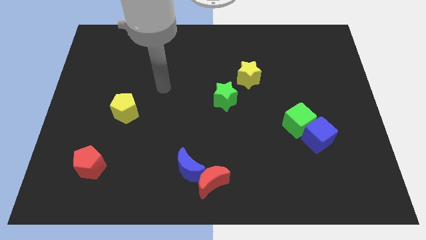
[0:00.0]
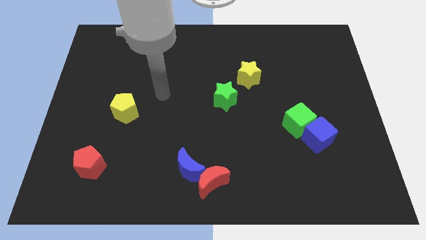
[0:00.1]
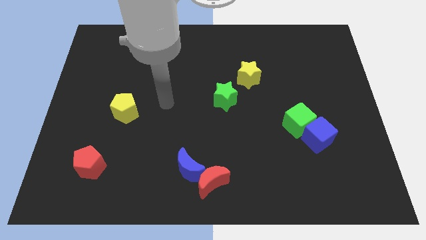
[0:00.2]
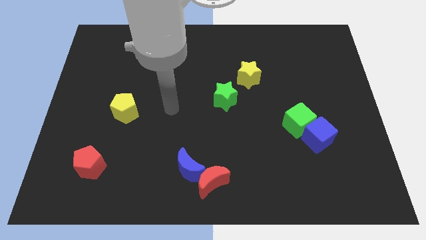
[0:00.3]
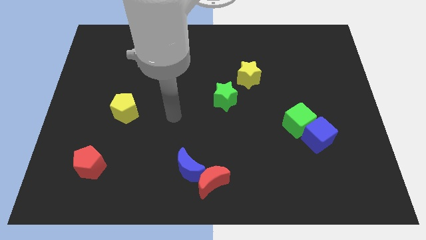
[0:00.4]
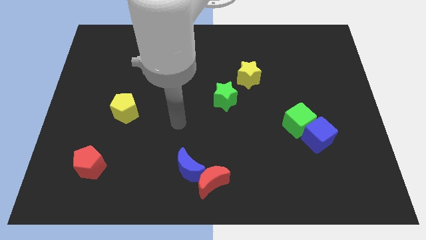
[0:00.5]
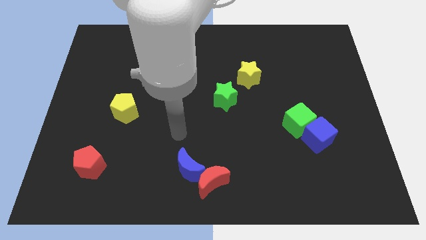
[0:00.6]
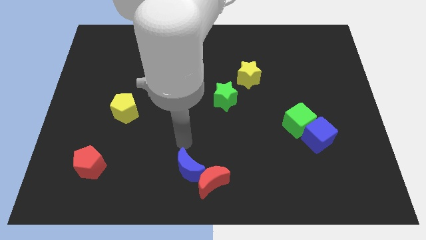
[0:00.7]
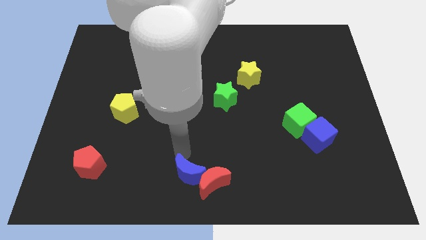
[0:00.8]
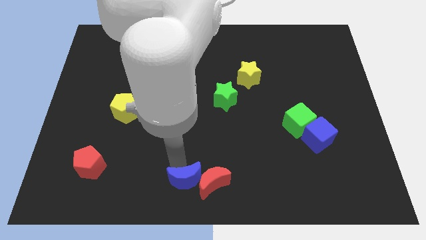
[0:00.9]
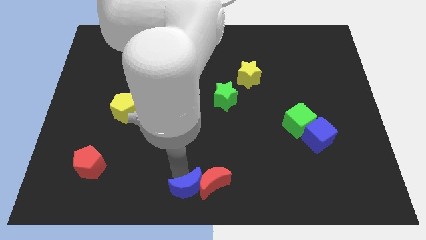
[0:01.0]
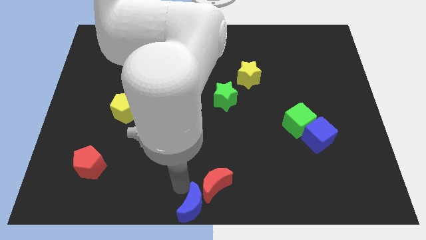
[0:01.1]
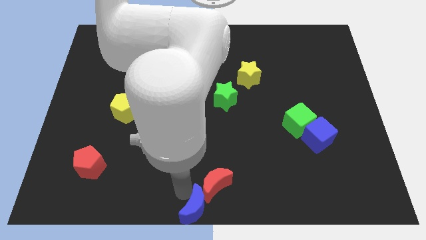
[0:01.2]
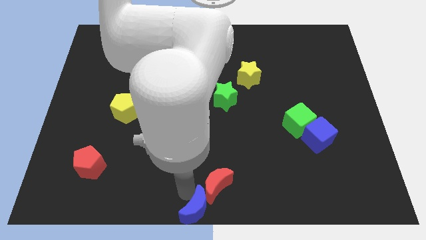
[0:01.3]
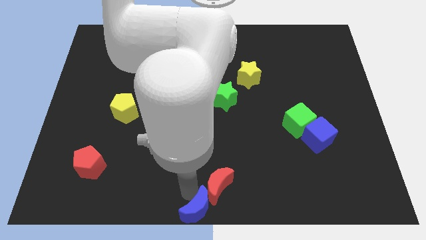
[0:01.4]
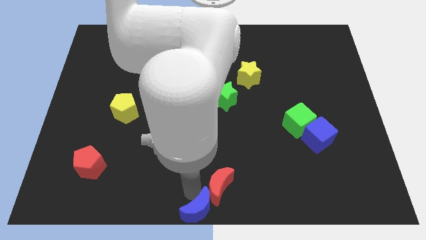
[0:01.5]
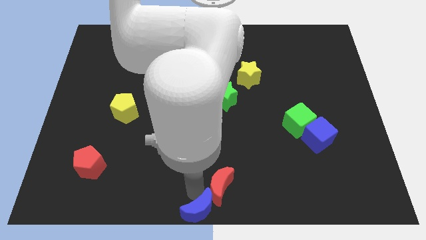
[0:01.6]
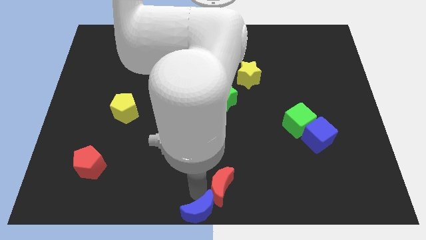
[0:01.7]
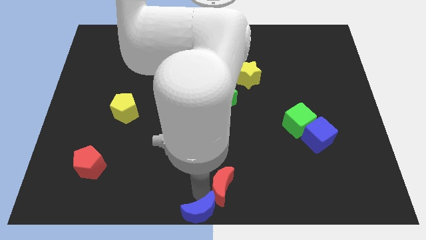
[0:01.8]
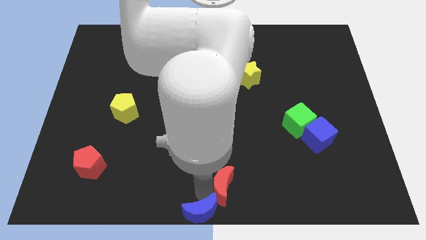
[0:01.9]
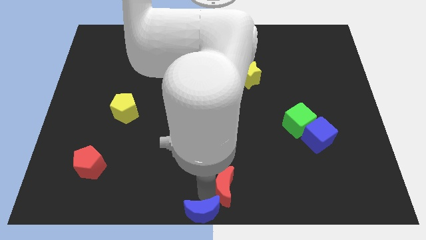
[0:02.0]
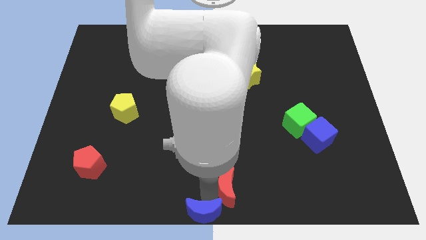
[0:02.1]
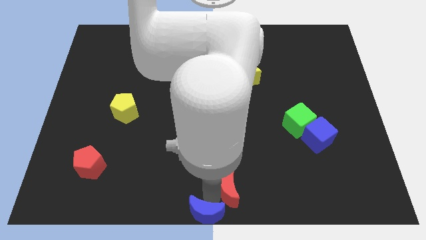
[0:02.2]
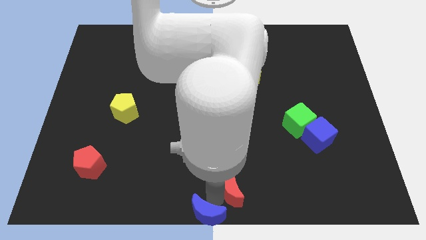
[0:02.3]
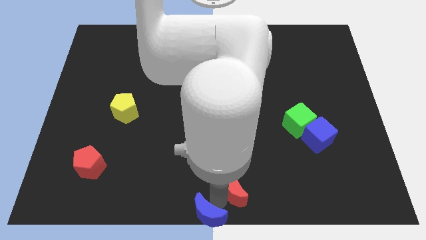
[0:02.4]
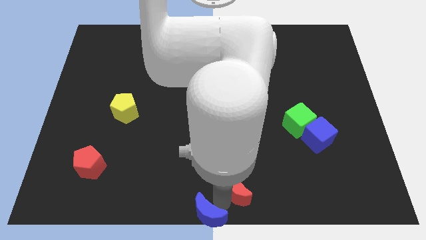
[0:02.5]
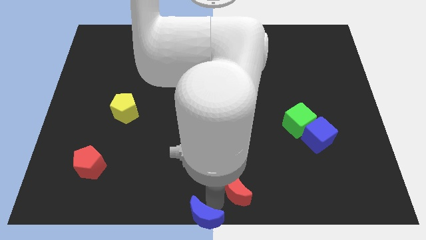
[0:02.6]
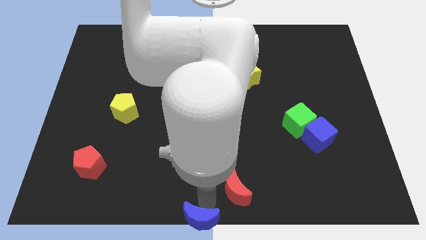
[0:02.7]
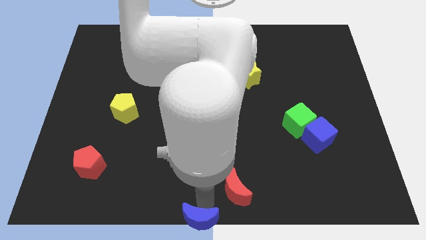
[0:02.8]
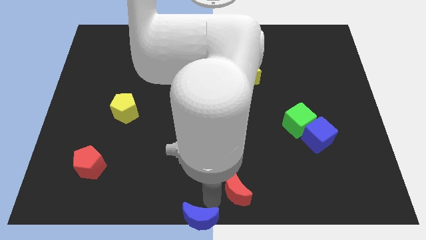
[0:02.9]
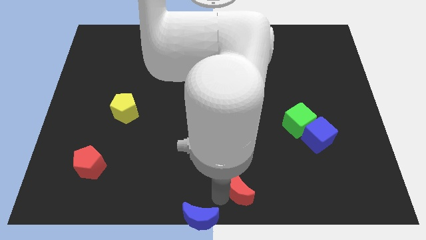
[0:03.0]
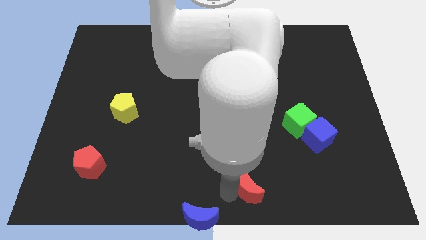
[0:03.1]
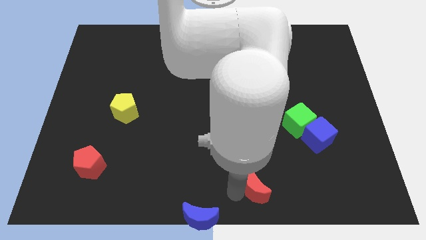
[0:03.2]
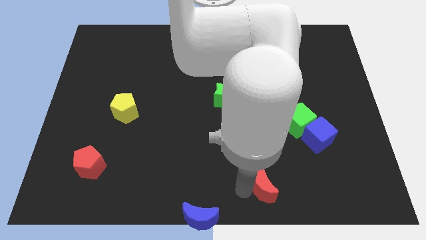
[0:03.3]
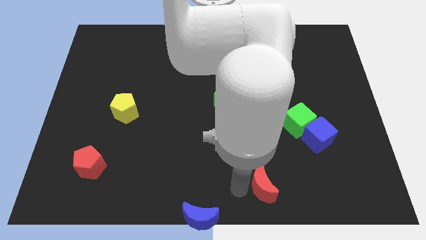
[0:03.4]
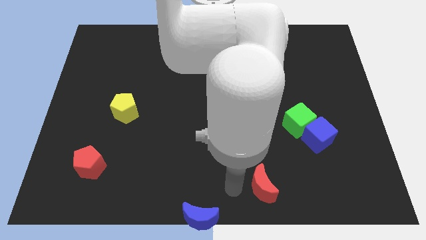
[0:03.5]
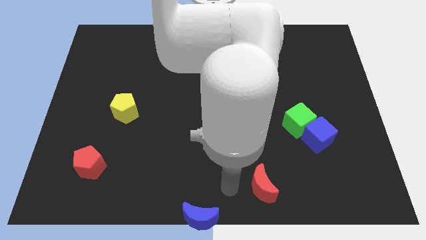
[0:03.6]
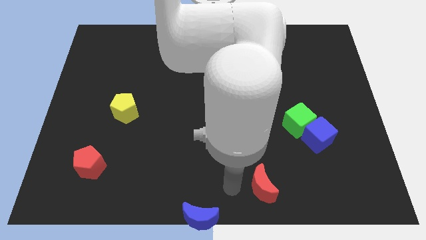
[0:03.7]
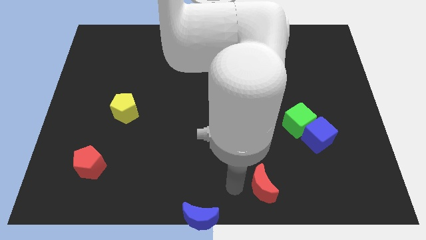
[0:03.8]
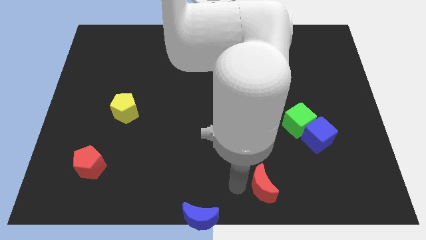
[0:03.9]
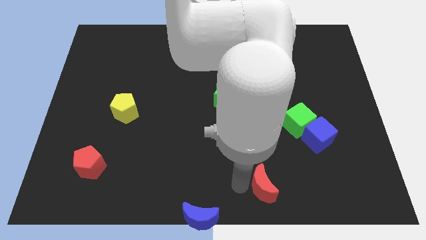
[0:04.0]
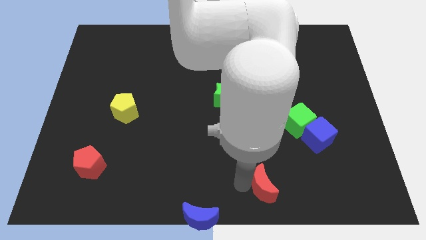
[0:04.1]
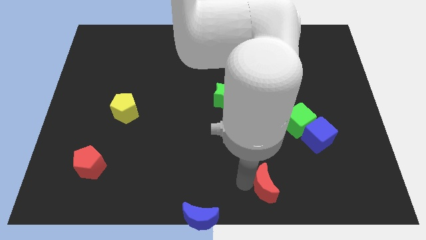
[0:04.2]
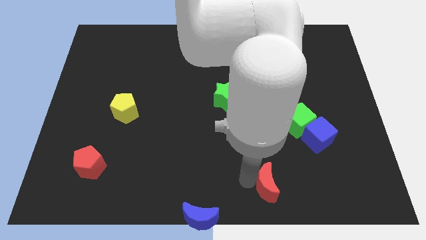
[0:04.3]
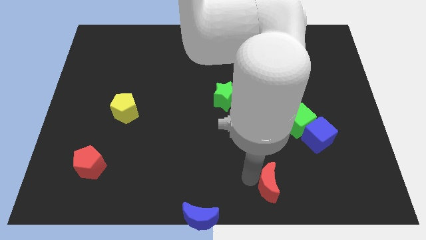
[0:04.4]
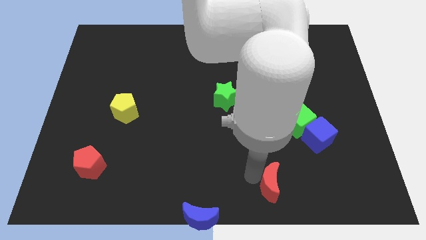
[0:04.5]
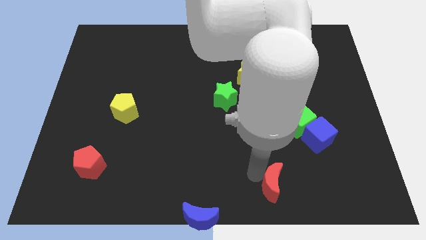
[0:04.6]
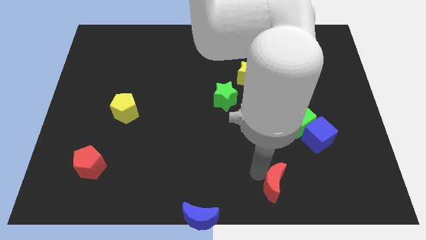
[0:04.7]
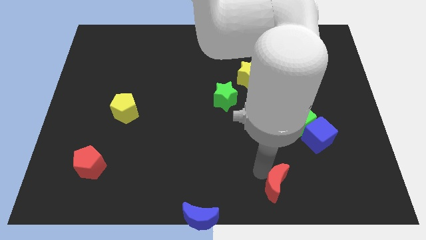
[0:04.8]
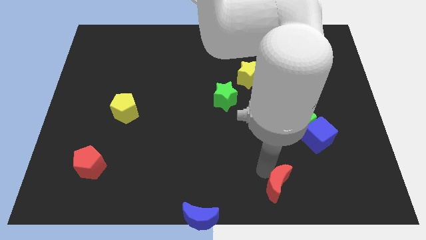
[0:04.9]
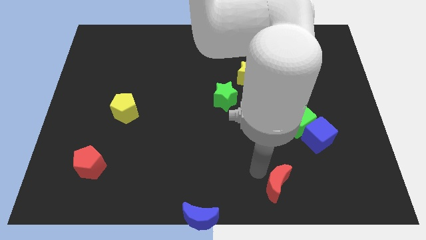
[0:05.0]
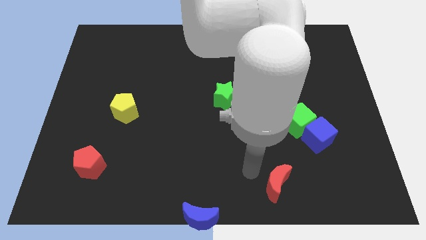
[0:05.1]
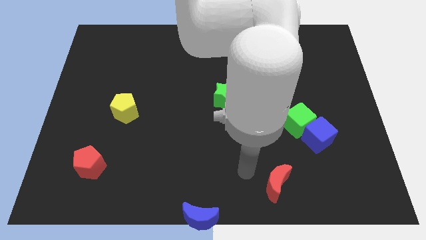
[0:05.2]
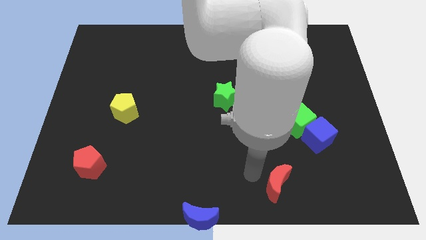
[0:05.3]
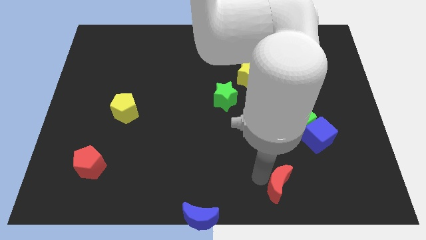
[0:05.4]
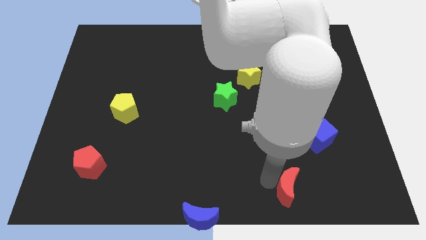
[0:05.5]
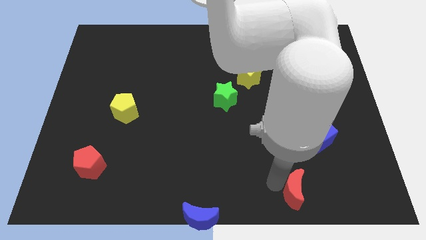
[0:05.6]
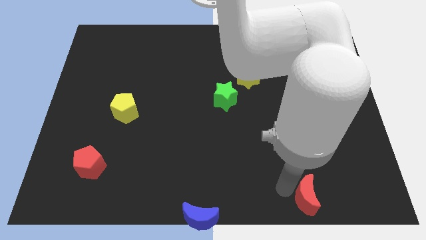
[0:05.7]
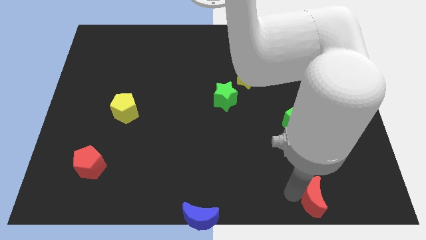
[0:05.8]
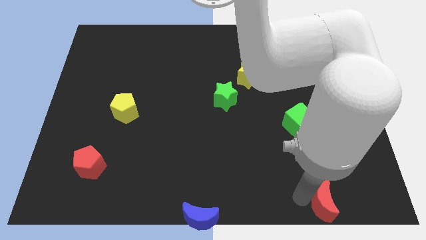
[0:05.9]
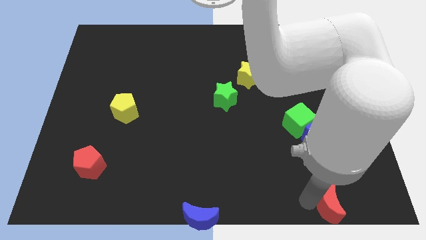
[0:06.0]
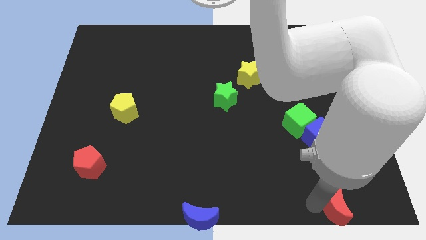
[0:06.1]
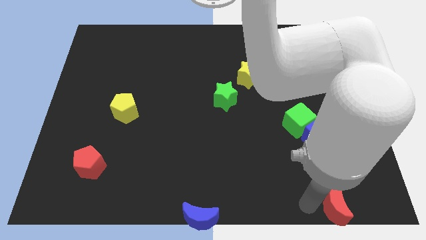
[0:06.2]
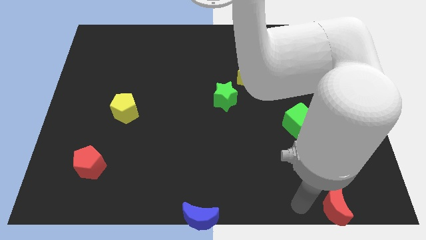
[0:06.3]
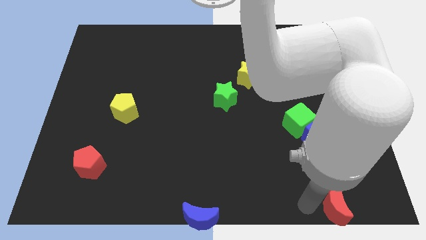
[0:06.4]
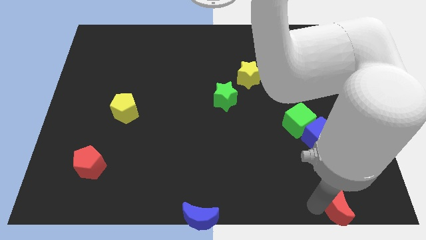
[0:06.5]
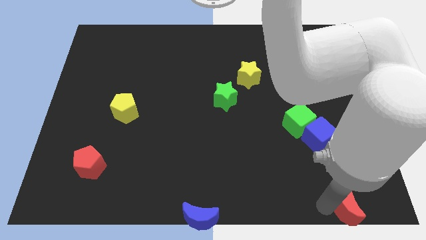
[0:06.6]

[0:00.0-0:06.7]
push the red moon to the lower right corner

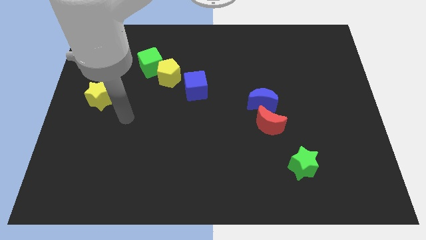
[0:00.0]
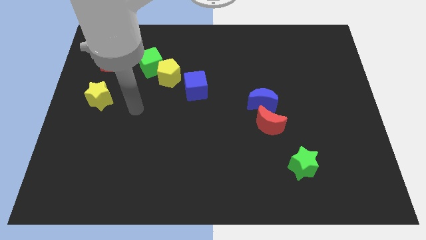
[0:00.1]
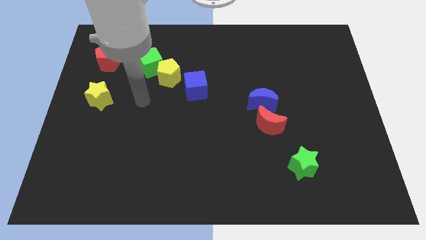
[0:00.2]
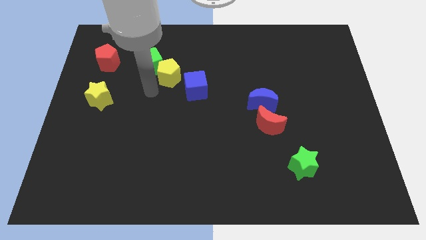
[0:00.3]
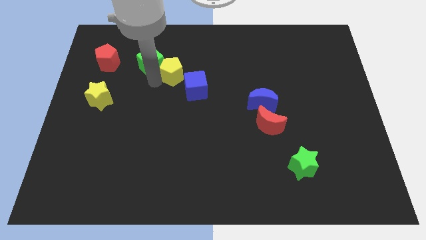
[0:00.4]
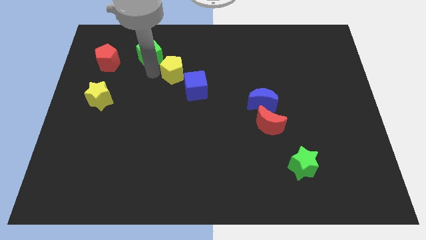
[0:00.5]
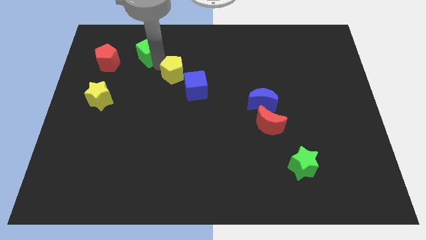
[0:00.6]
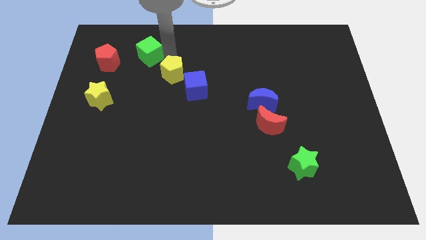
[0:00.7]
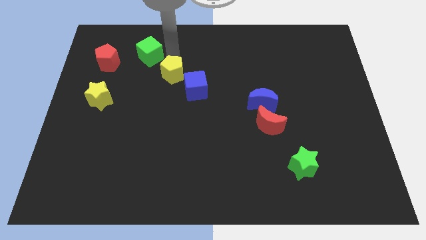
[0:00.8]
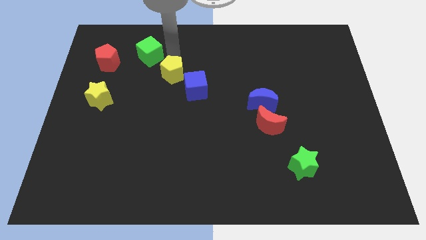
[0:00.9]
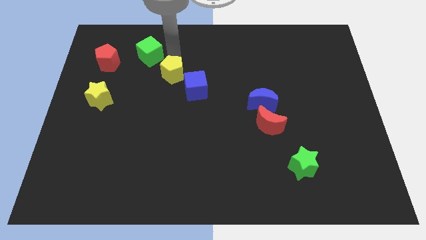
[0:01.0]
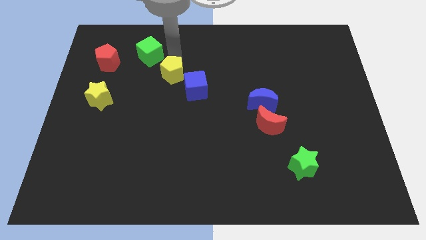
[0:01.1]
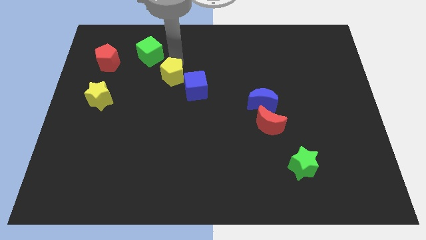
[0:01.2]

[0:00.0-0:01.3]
push the yellow pentagon to the center of the board
